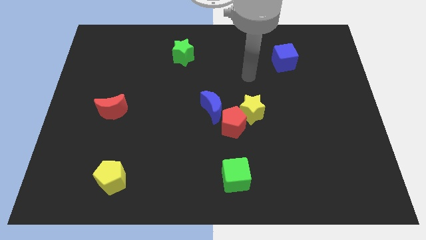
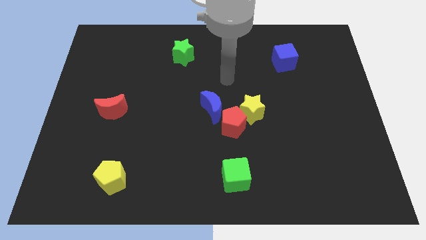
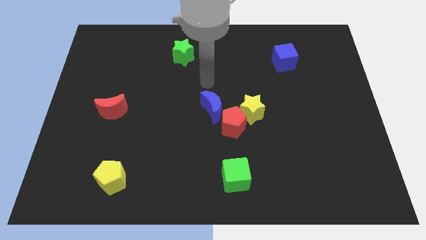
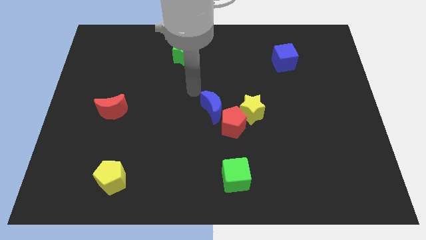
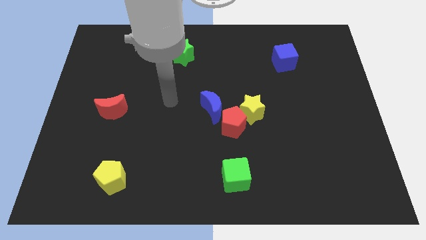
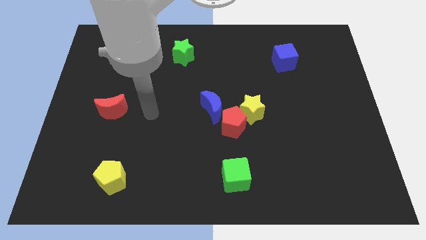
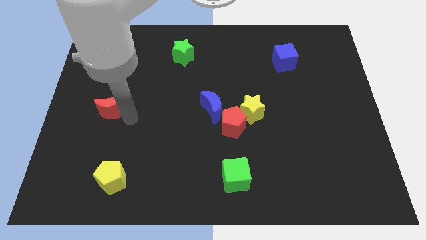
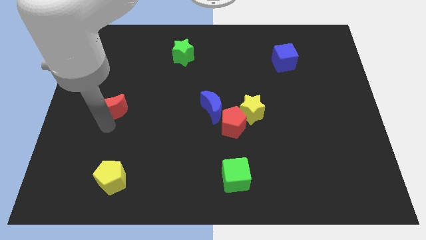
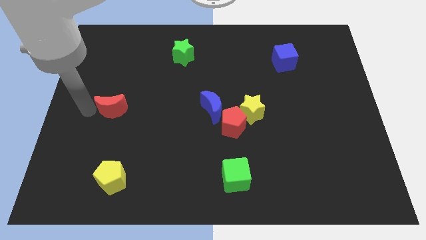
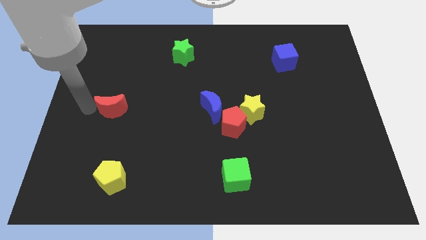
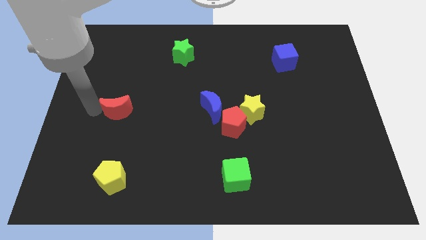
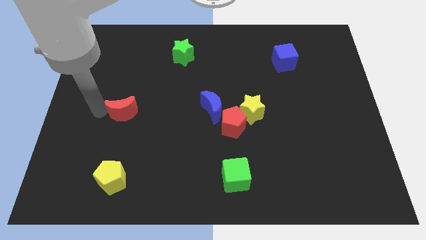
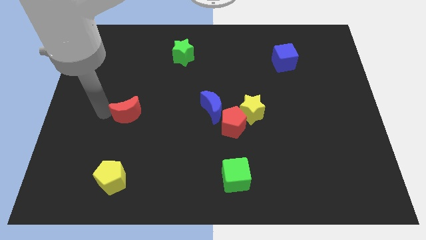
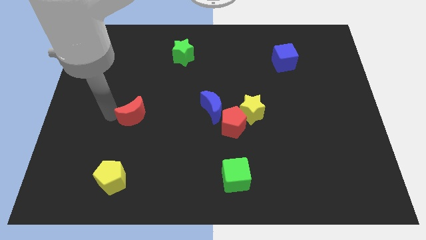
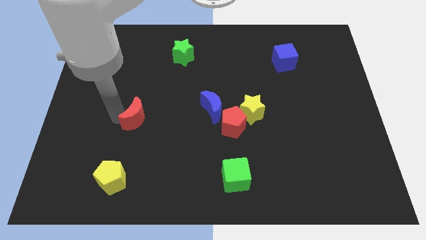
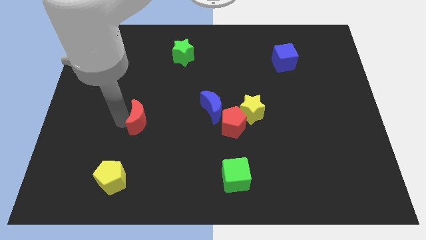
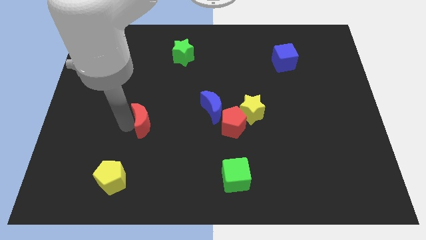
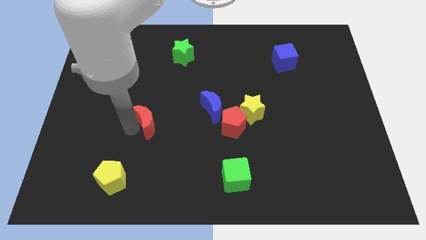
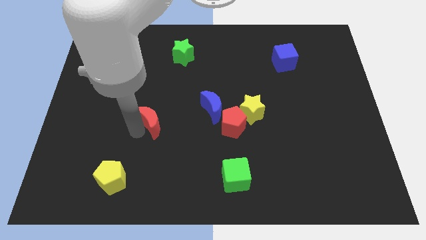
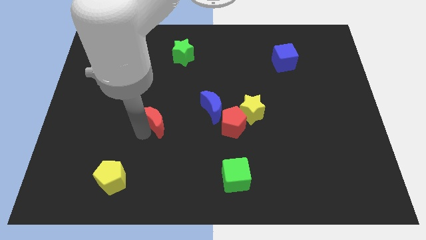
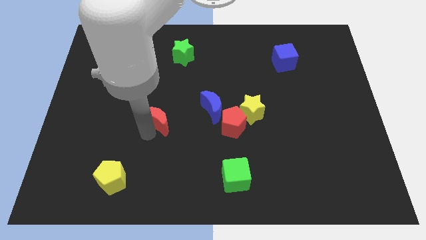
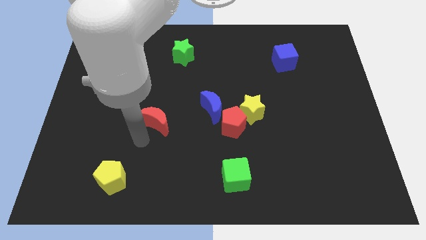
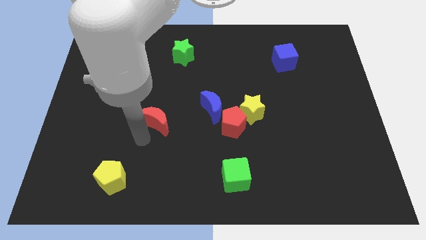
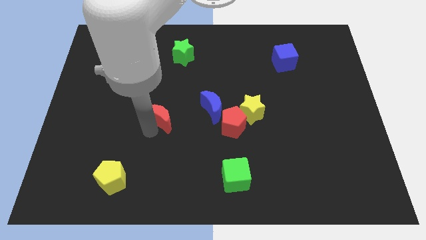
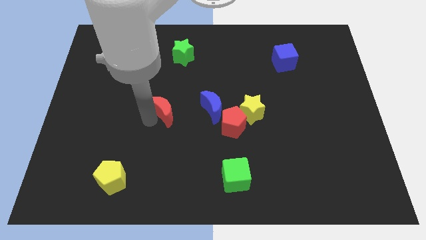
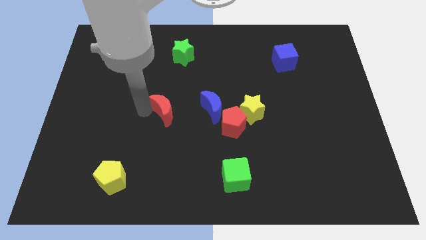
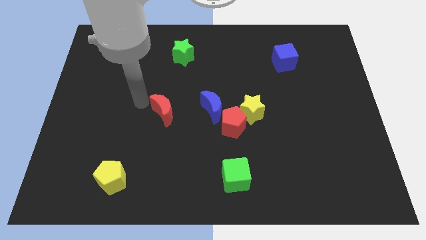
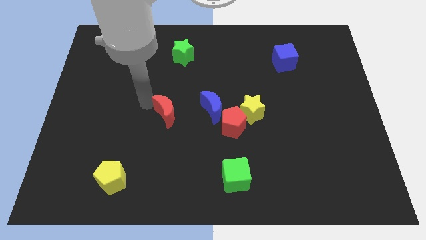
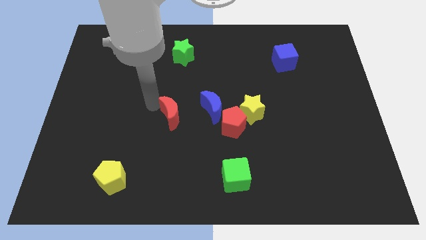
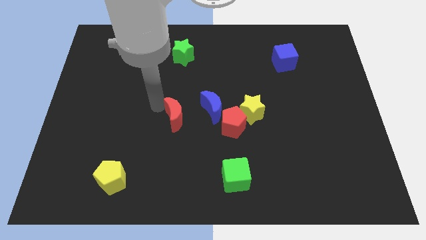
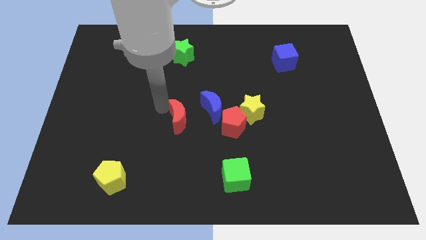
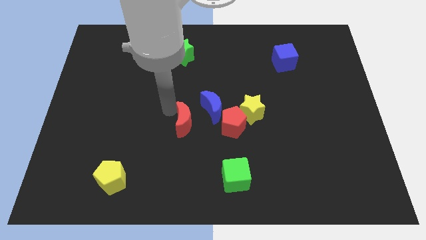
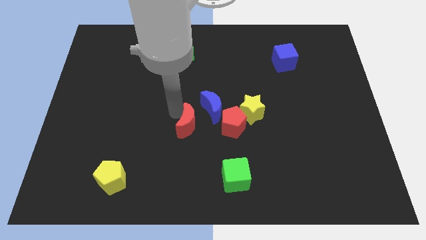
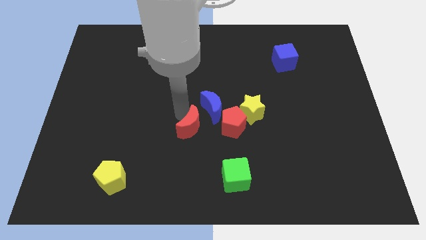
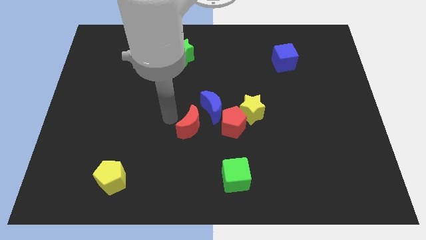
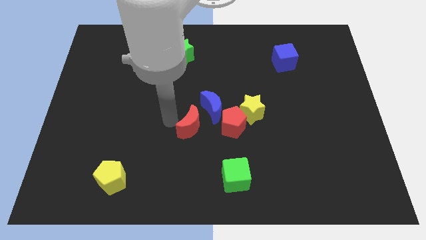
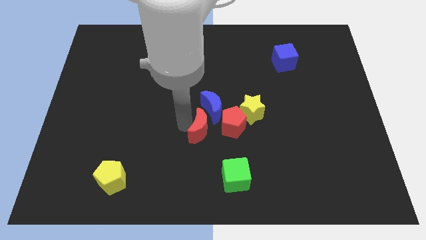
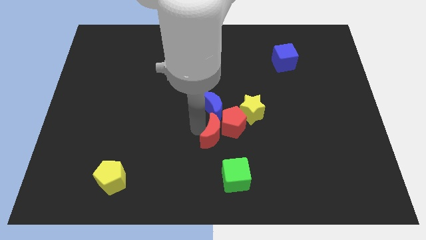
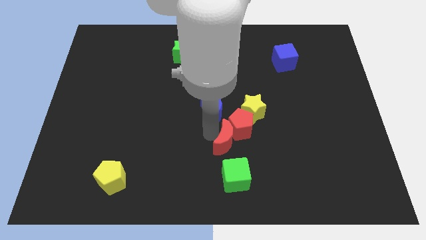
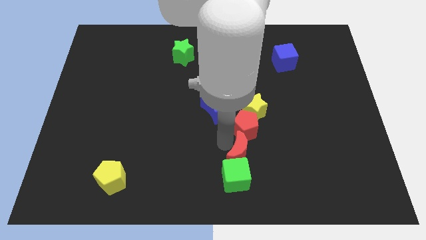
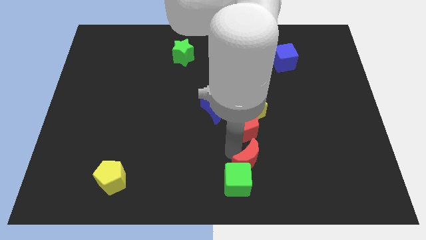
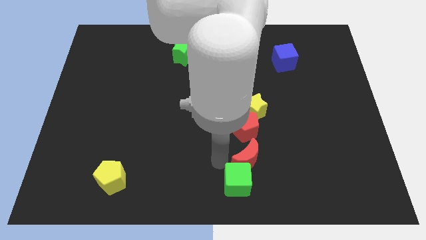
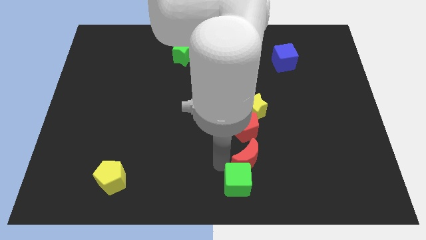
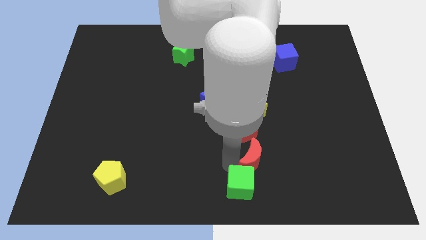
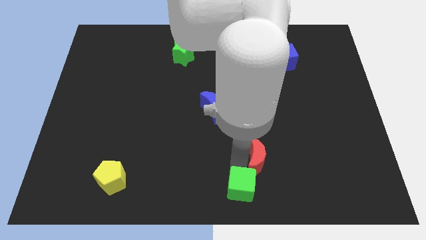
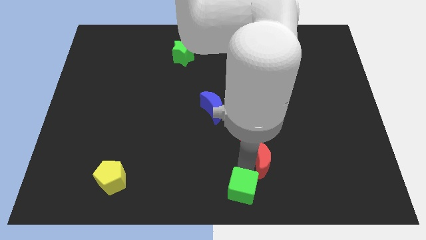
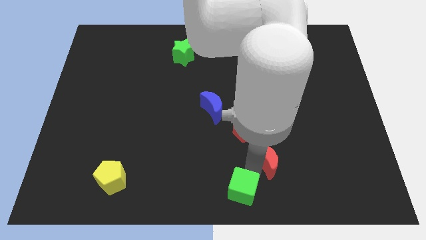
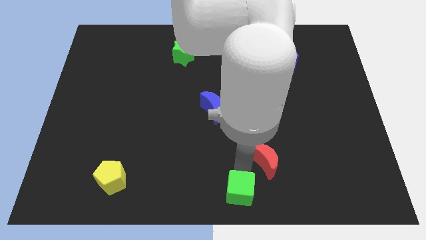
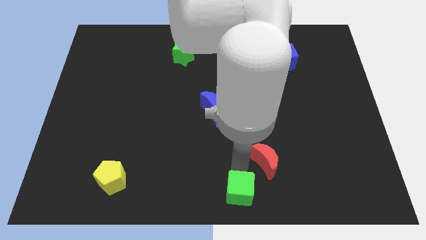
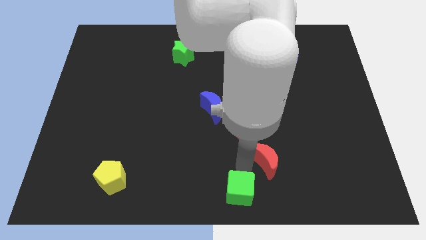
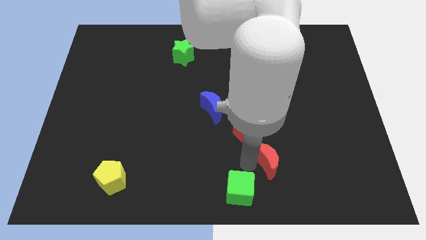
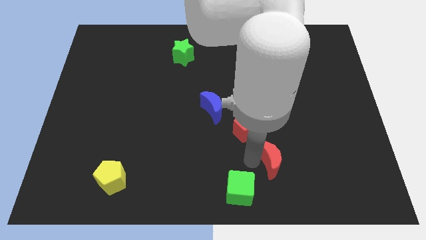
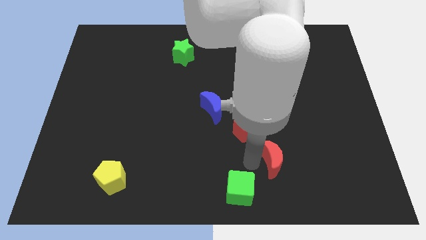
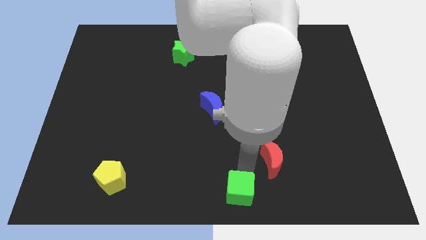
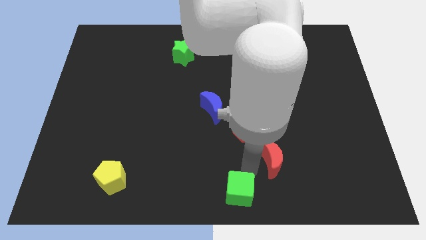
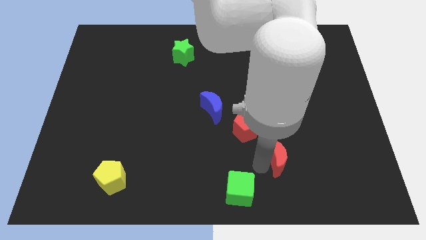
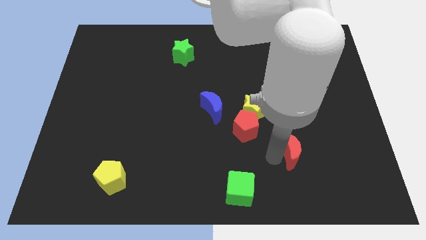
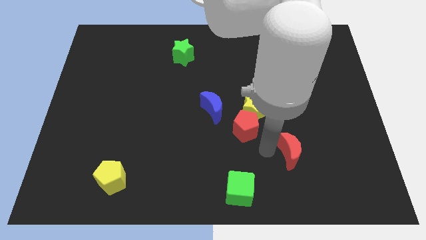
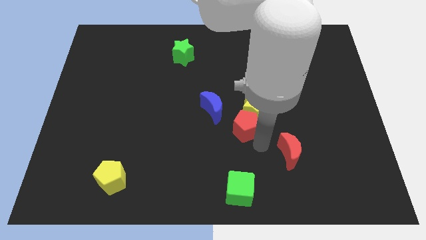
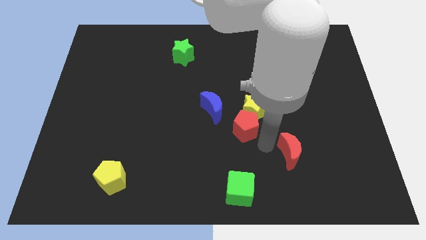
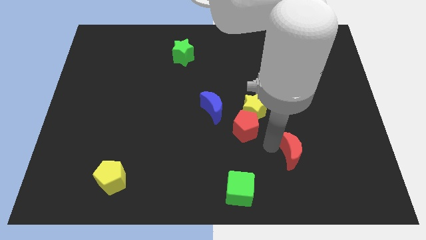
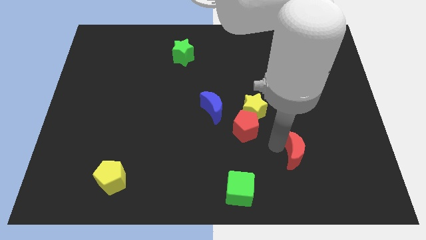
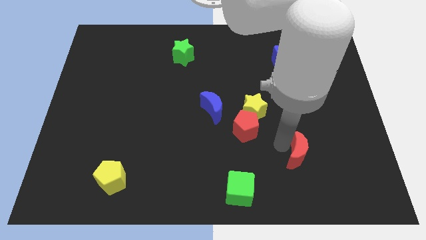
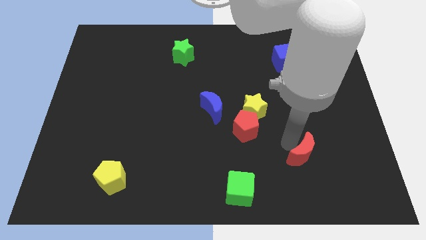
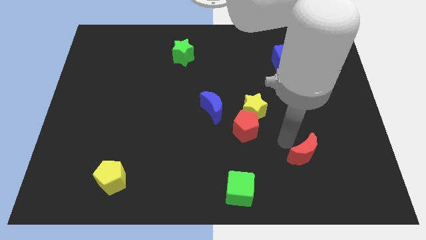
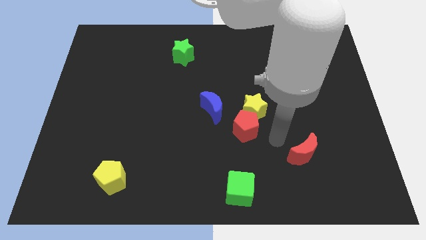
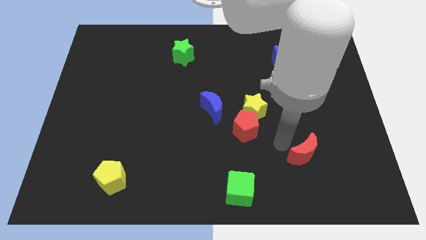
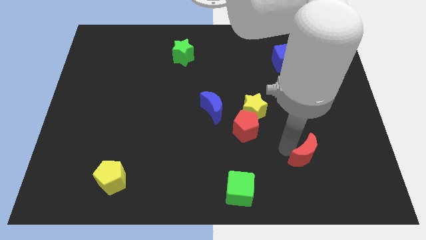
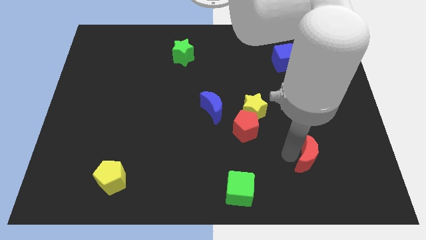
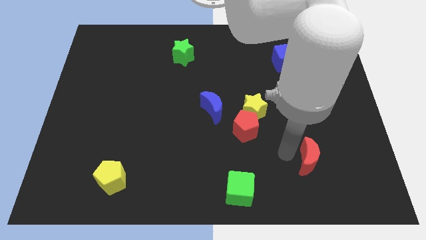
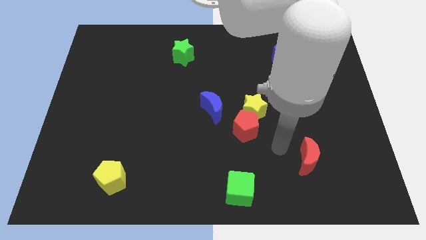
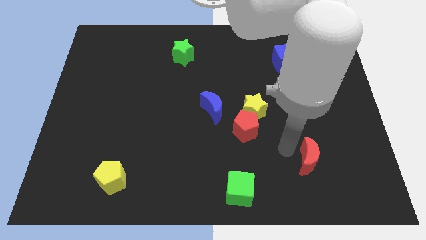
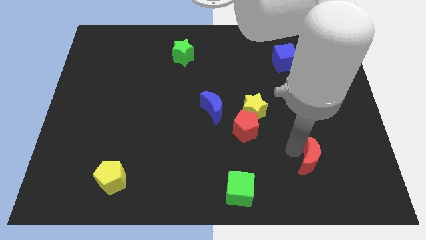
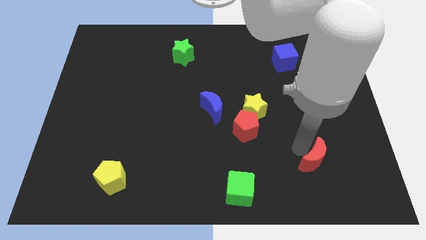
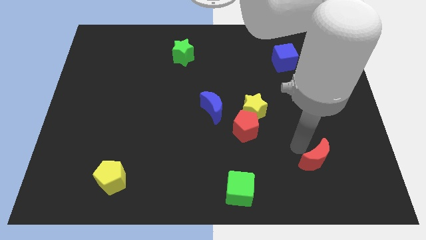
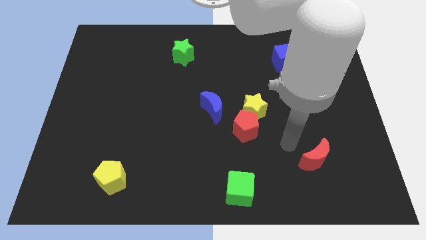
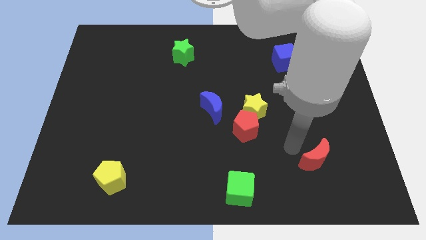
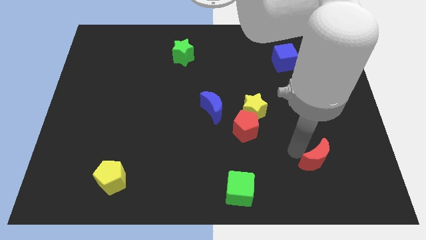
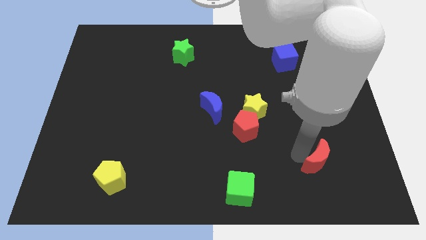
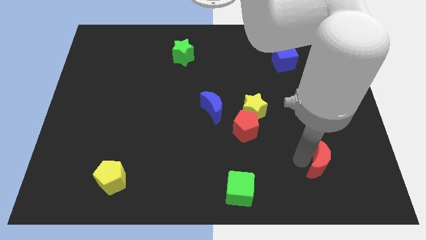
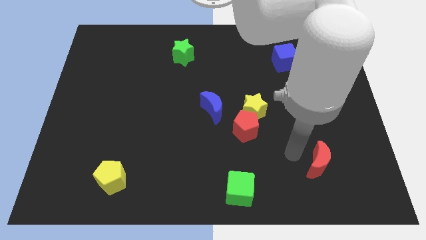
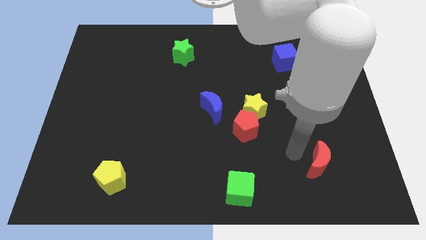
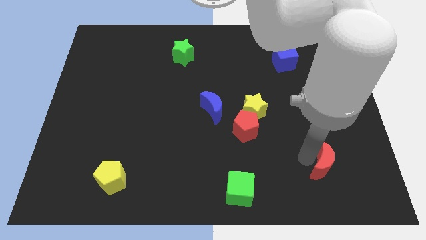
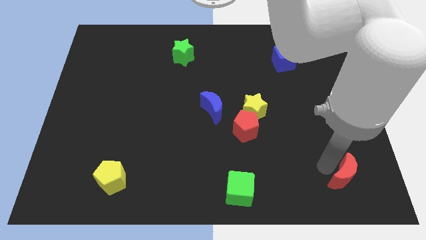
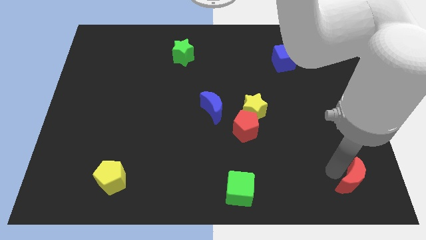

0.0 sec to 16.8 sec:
push the red moon to the bottom right
